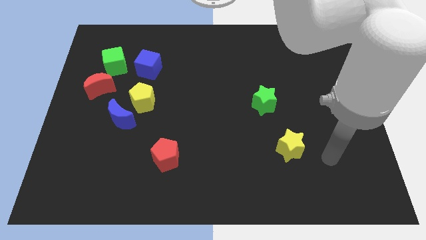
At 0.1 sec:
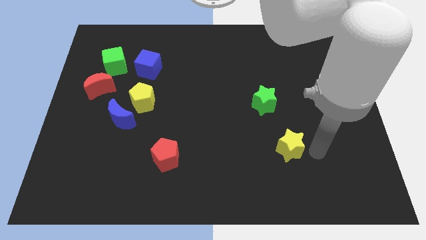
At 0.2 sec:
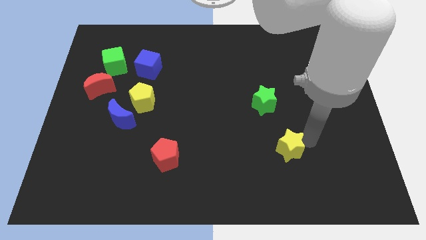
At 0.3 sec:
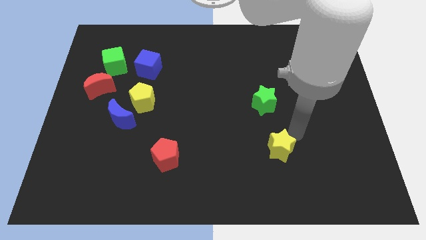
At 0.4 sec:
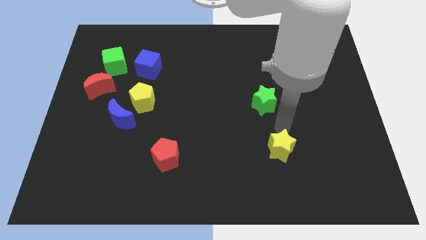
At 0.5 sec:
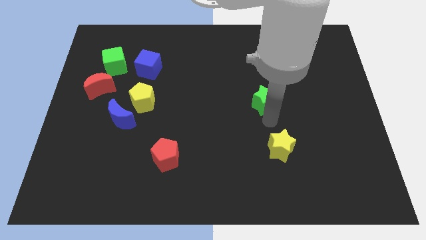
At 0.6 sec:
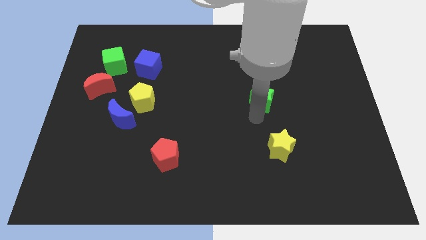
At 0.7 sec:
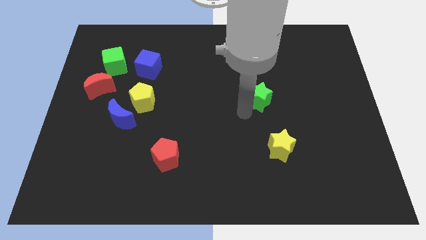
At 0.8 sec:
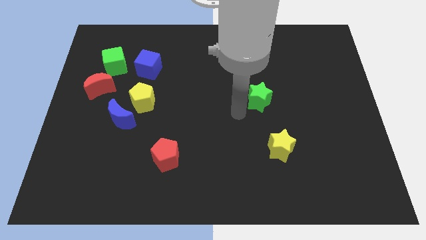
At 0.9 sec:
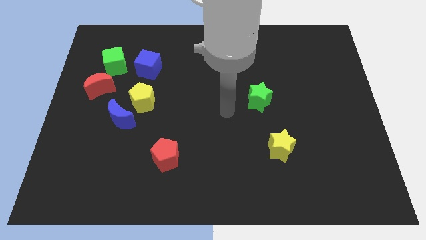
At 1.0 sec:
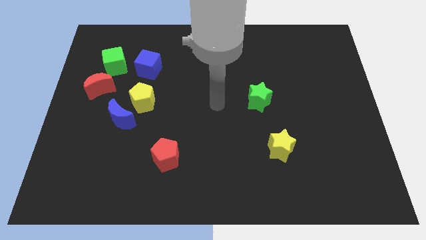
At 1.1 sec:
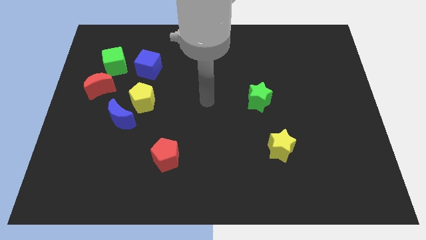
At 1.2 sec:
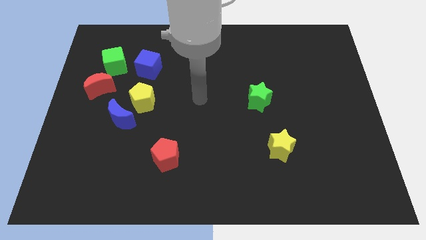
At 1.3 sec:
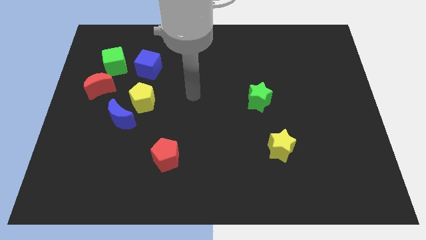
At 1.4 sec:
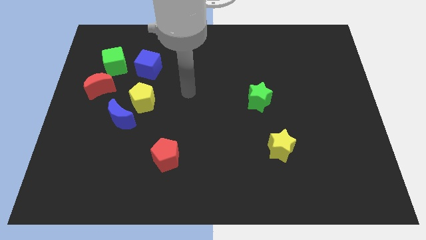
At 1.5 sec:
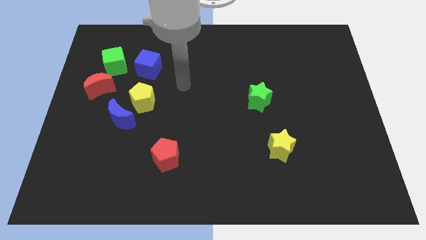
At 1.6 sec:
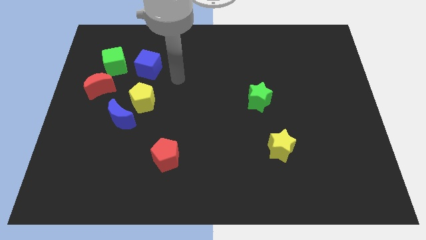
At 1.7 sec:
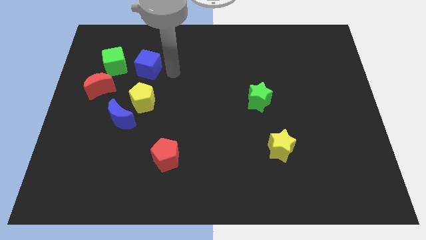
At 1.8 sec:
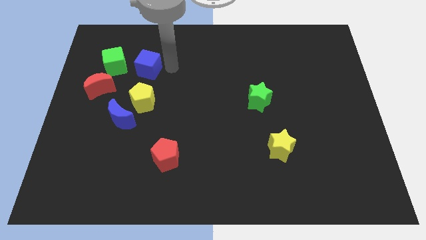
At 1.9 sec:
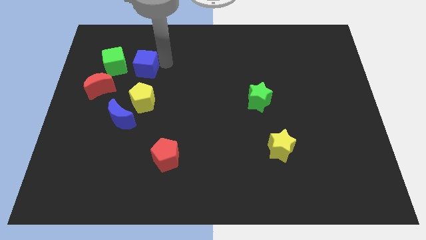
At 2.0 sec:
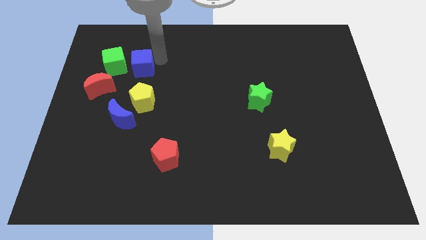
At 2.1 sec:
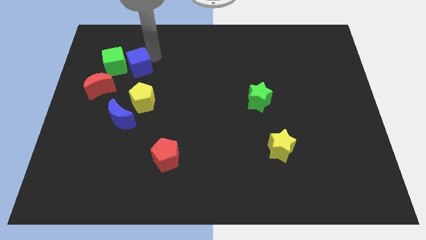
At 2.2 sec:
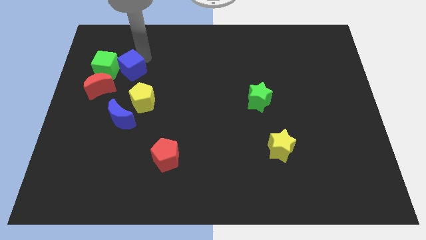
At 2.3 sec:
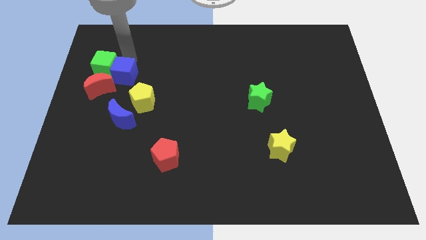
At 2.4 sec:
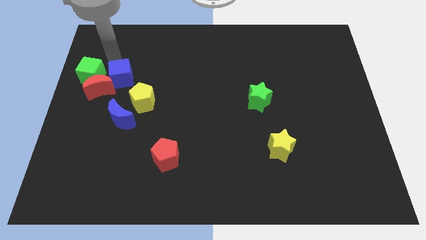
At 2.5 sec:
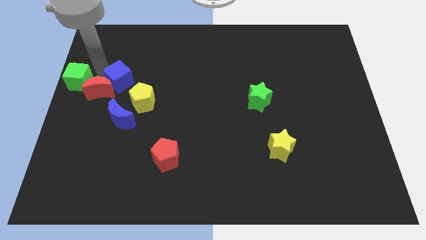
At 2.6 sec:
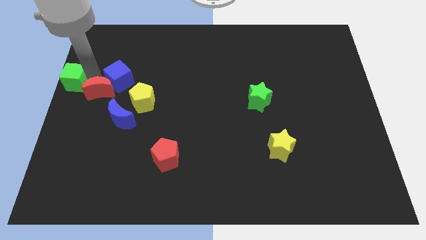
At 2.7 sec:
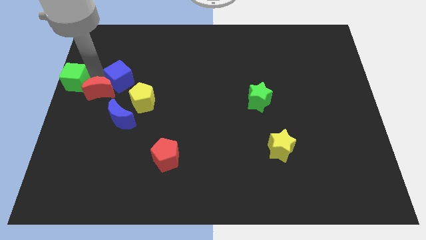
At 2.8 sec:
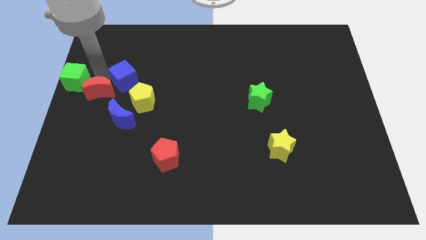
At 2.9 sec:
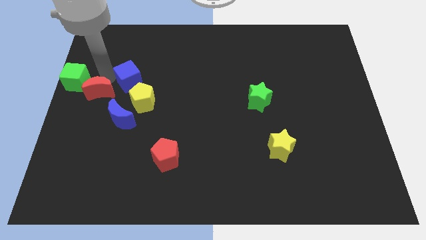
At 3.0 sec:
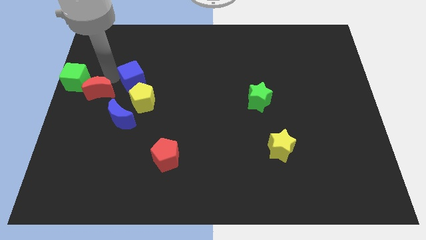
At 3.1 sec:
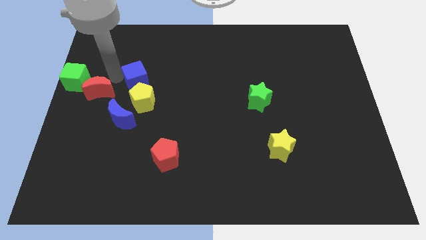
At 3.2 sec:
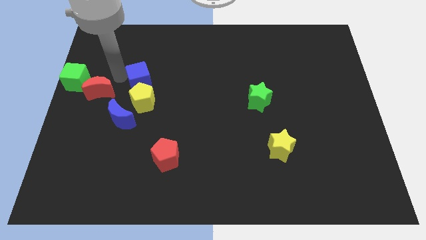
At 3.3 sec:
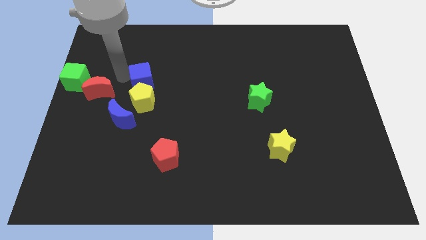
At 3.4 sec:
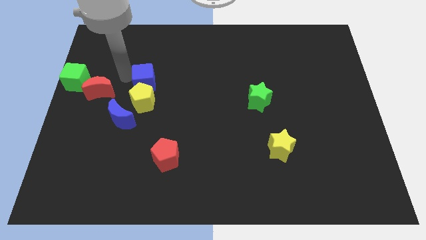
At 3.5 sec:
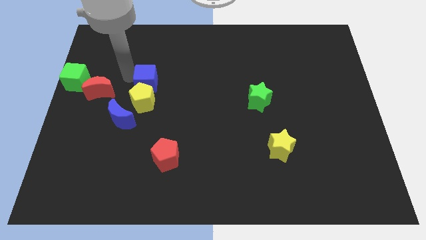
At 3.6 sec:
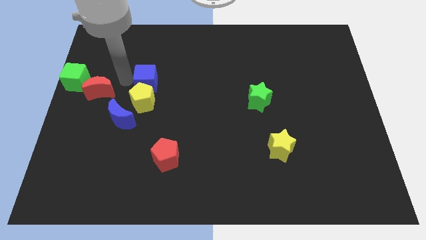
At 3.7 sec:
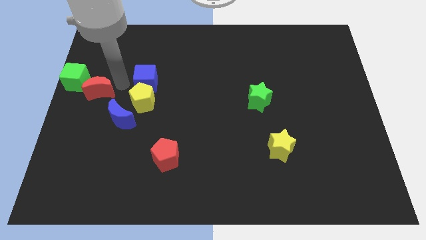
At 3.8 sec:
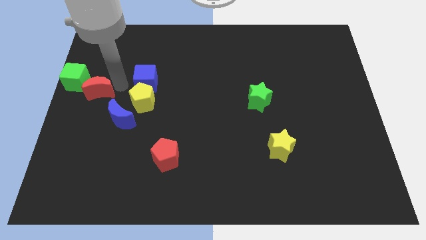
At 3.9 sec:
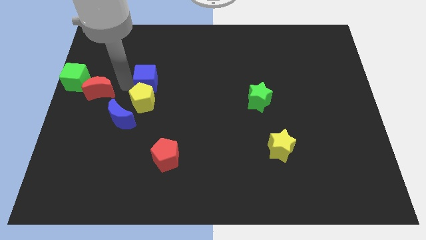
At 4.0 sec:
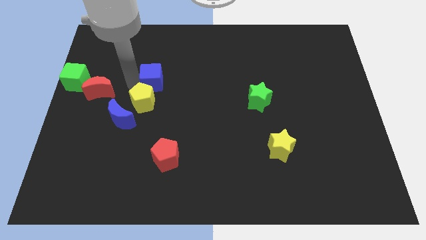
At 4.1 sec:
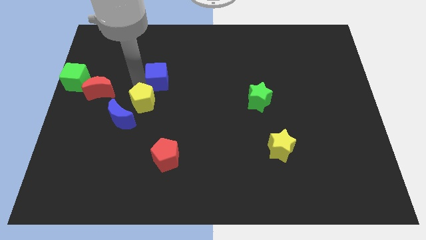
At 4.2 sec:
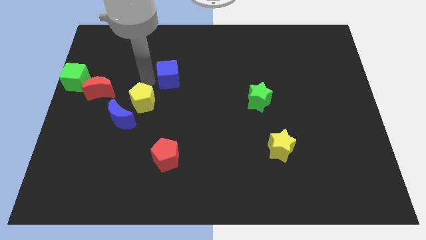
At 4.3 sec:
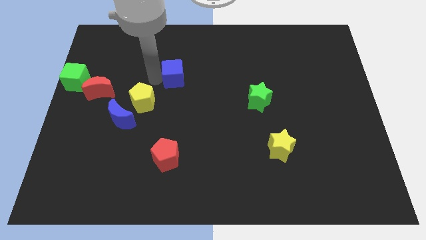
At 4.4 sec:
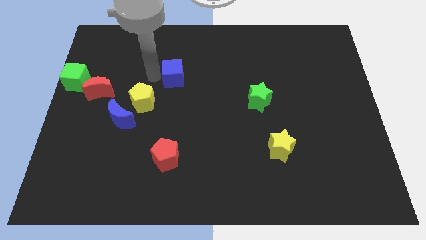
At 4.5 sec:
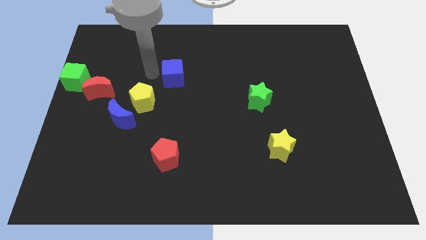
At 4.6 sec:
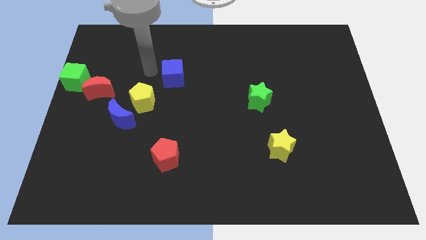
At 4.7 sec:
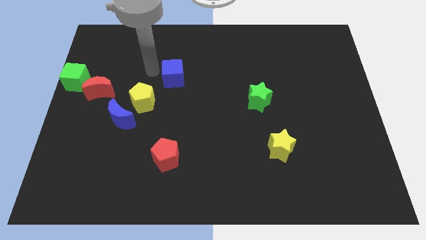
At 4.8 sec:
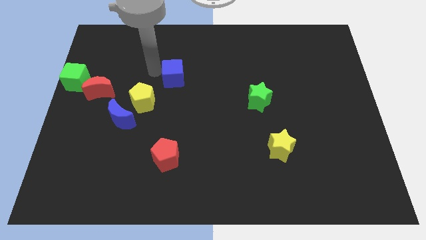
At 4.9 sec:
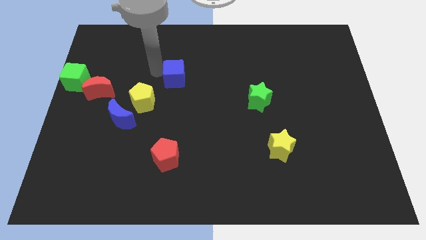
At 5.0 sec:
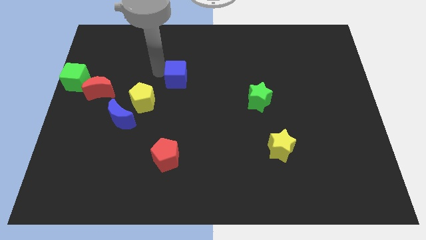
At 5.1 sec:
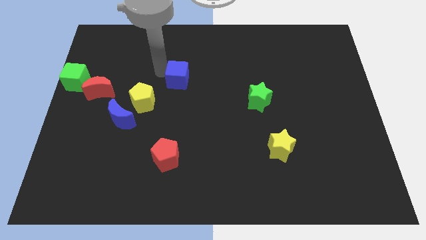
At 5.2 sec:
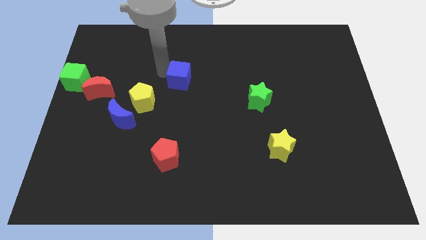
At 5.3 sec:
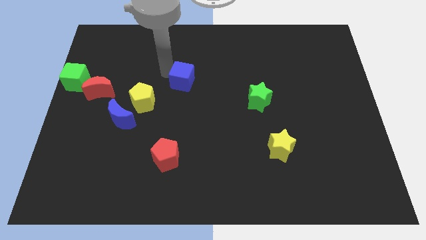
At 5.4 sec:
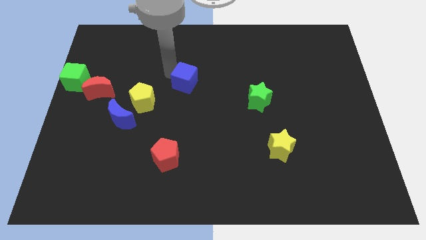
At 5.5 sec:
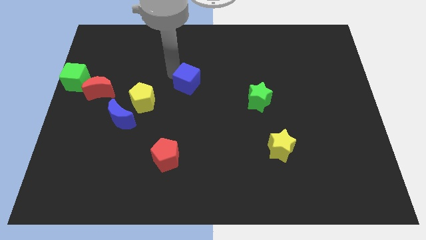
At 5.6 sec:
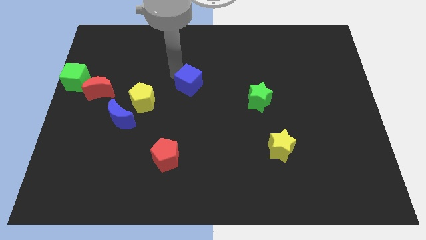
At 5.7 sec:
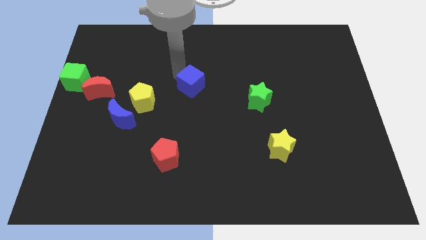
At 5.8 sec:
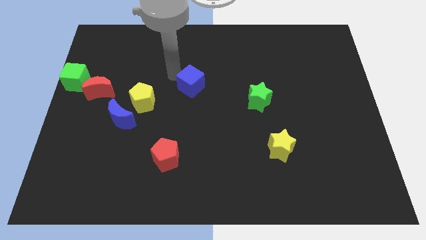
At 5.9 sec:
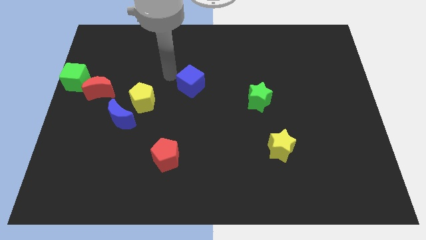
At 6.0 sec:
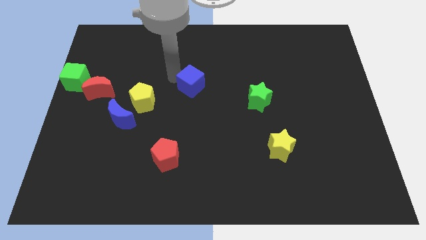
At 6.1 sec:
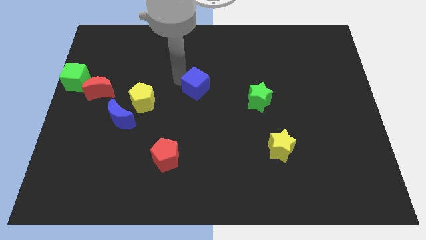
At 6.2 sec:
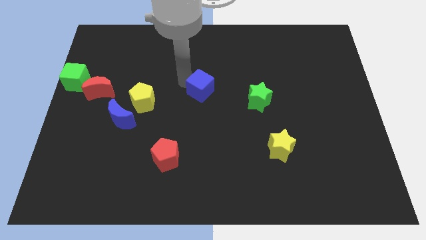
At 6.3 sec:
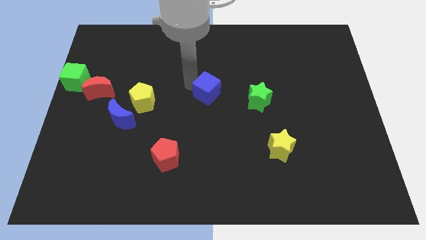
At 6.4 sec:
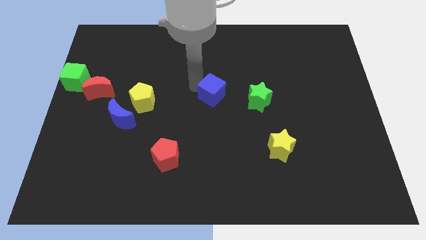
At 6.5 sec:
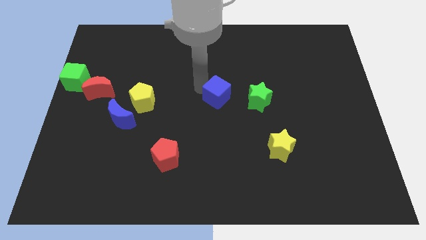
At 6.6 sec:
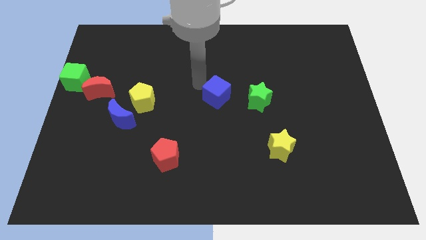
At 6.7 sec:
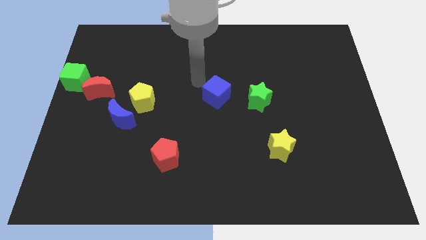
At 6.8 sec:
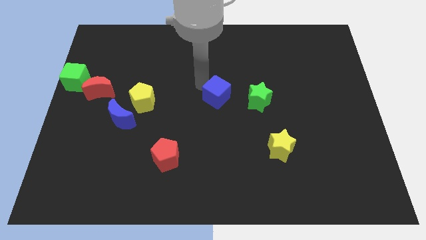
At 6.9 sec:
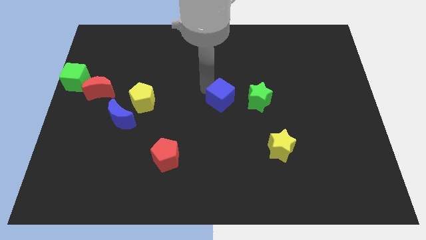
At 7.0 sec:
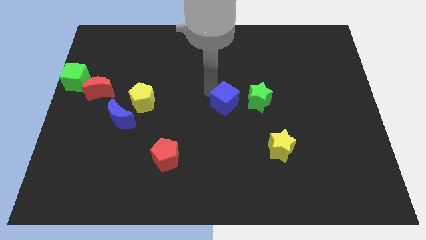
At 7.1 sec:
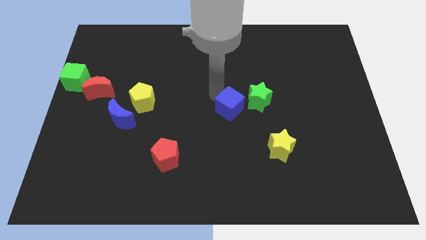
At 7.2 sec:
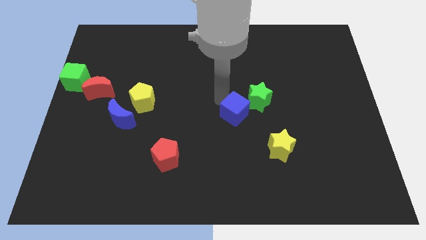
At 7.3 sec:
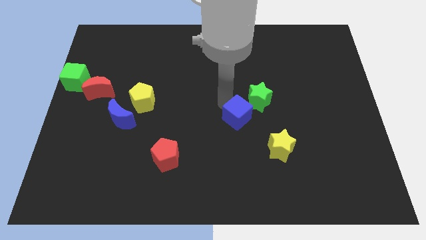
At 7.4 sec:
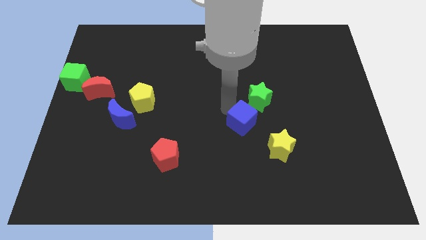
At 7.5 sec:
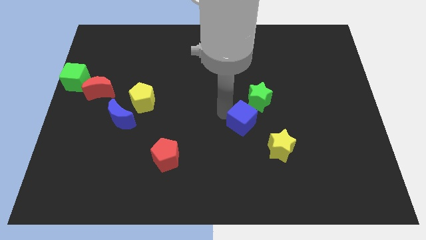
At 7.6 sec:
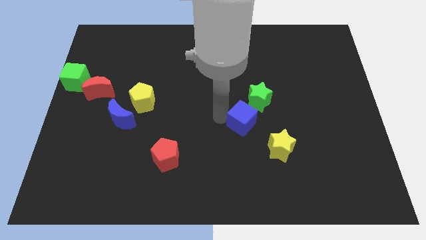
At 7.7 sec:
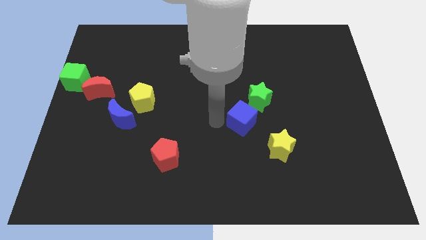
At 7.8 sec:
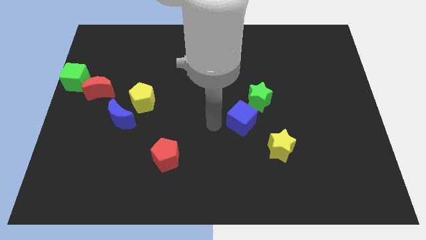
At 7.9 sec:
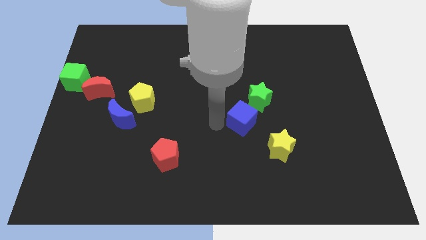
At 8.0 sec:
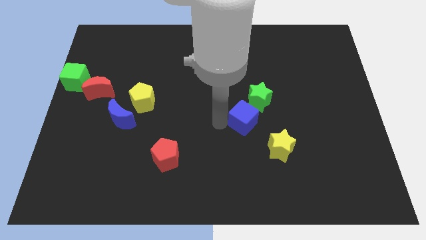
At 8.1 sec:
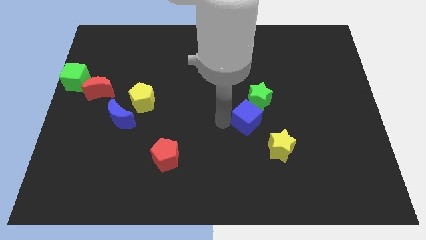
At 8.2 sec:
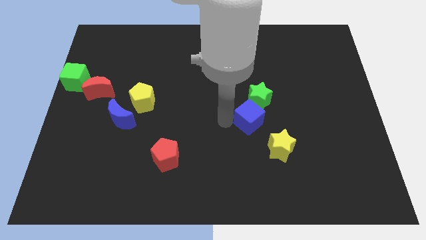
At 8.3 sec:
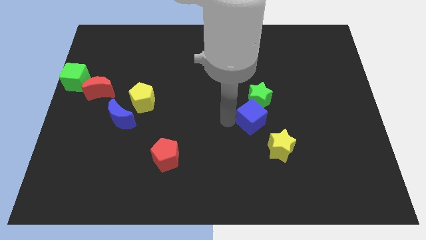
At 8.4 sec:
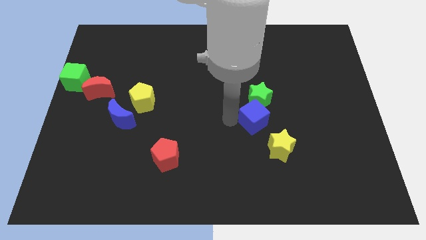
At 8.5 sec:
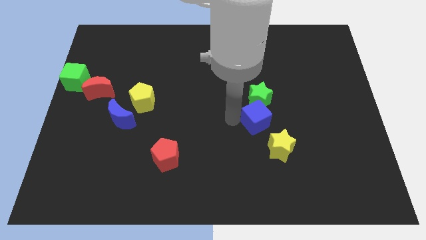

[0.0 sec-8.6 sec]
move the blue cube to the bottom right of the green star
